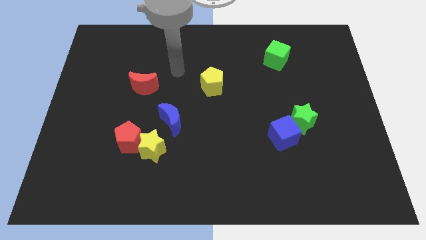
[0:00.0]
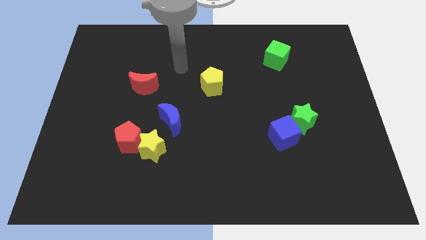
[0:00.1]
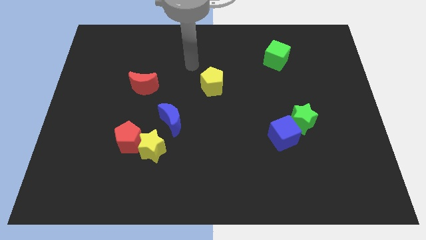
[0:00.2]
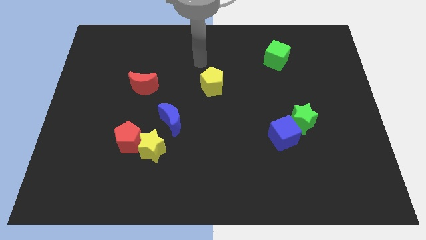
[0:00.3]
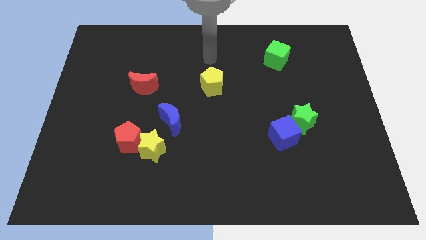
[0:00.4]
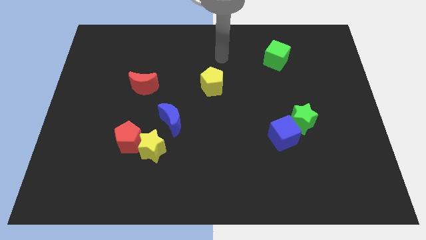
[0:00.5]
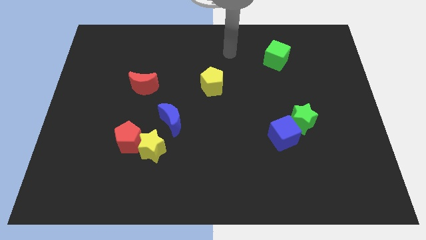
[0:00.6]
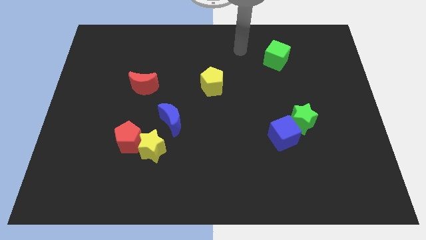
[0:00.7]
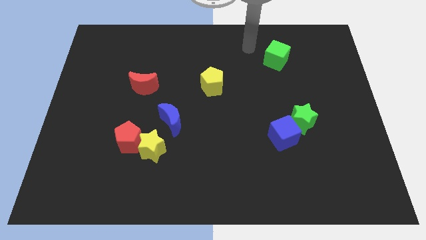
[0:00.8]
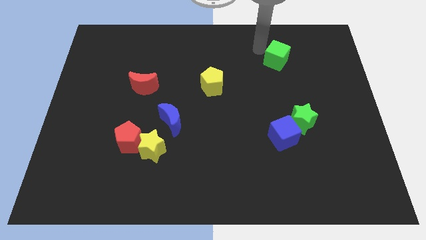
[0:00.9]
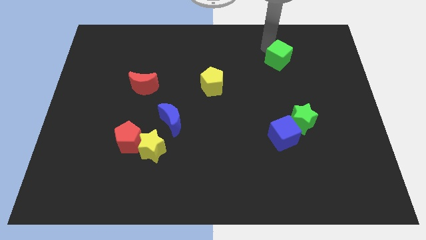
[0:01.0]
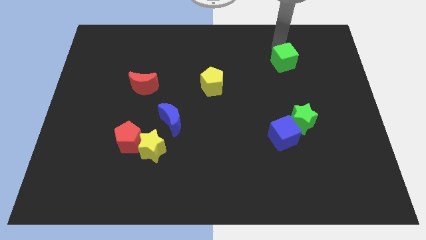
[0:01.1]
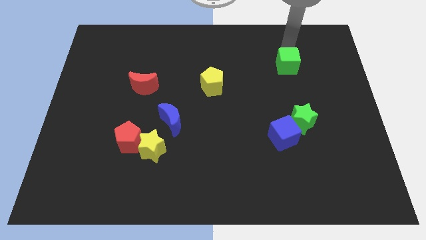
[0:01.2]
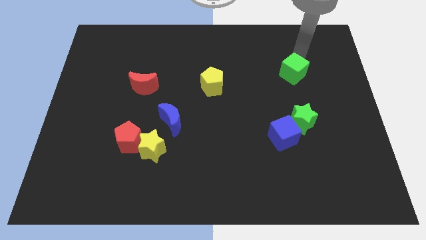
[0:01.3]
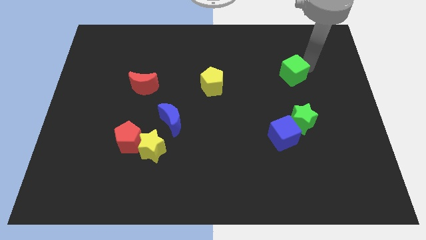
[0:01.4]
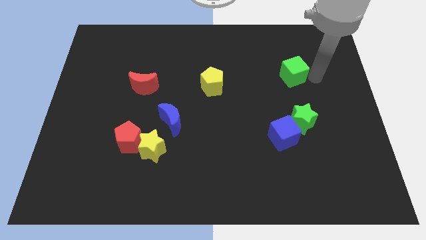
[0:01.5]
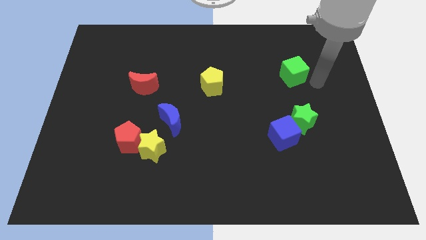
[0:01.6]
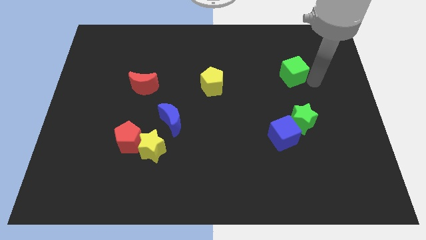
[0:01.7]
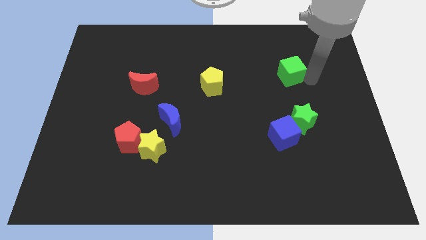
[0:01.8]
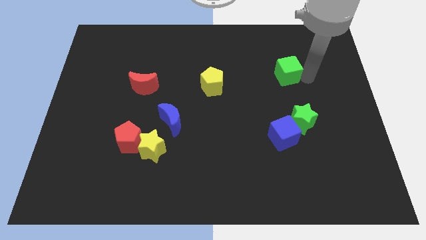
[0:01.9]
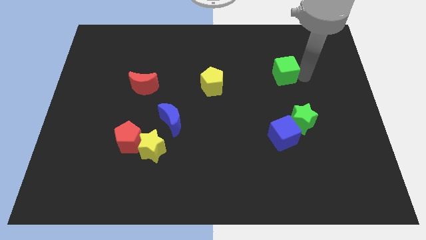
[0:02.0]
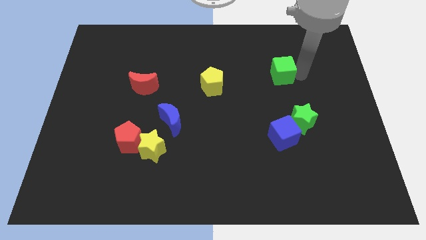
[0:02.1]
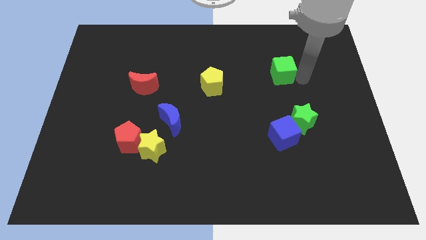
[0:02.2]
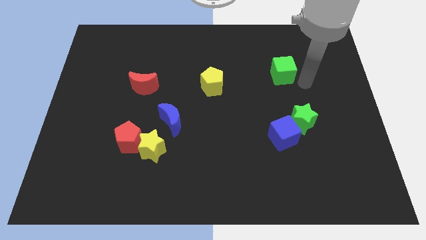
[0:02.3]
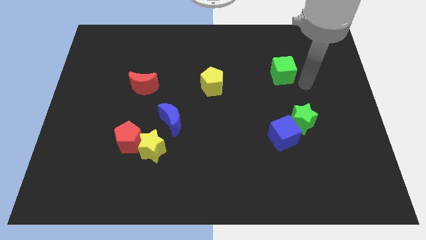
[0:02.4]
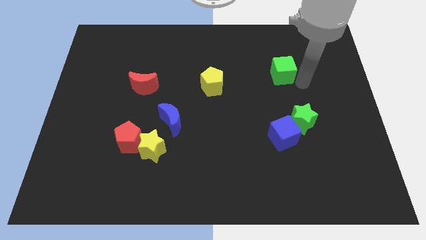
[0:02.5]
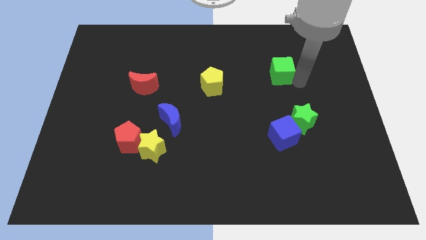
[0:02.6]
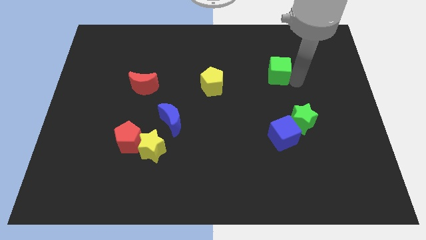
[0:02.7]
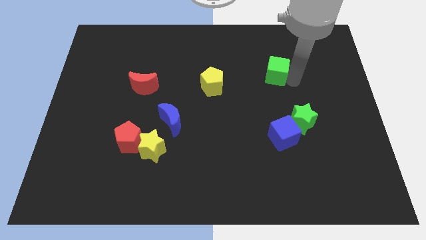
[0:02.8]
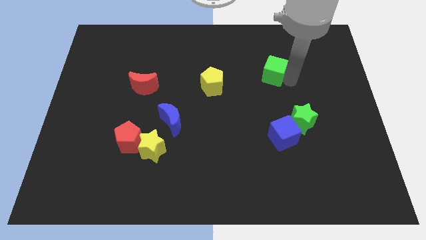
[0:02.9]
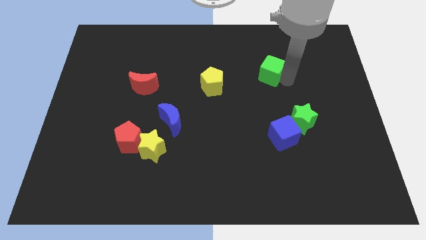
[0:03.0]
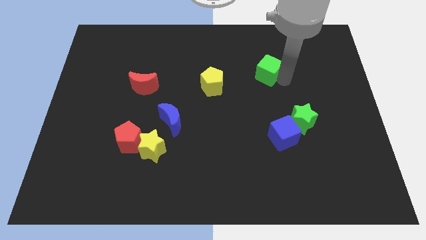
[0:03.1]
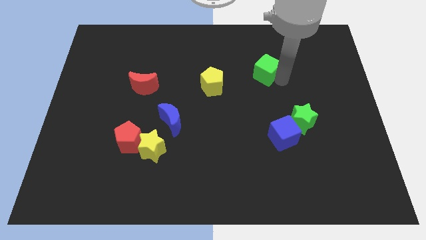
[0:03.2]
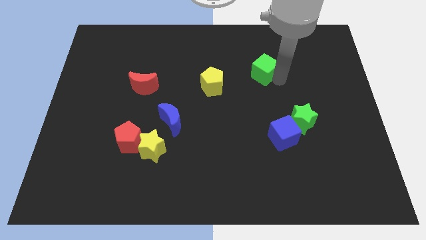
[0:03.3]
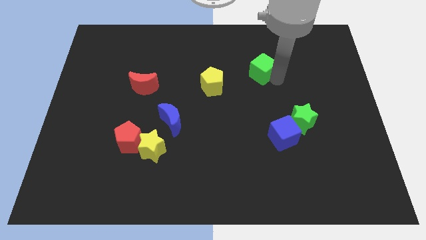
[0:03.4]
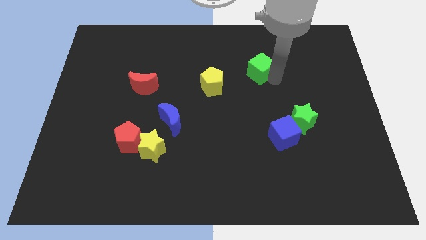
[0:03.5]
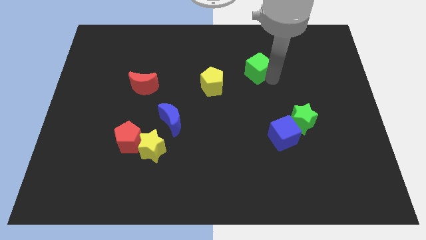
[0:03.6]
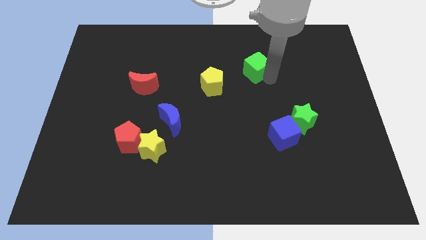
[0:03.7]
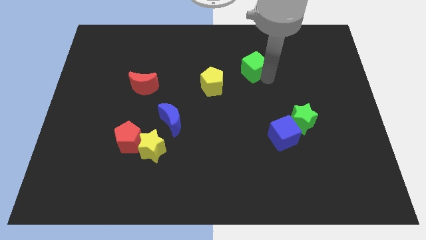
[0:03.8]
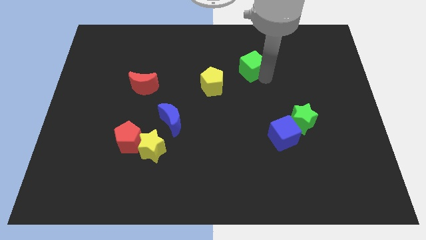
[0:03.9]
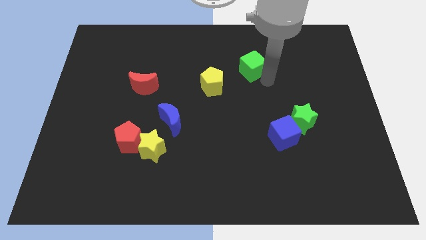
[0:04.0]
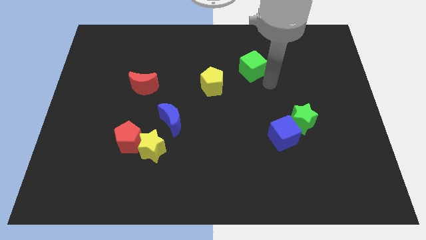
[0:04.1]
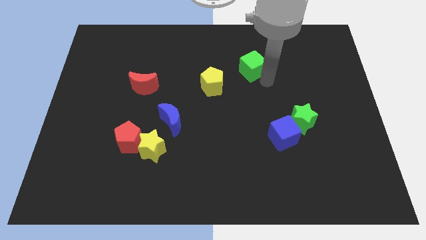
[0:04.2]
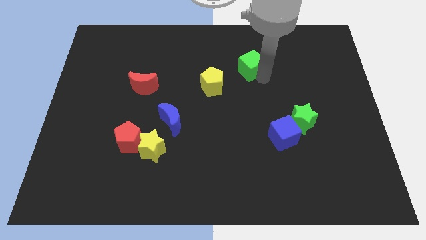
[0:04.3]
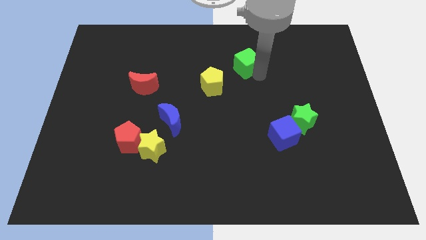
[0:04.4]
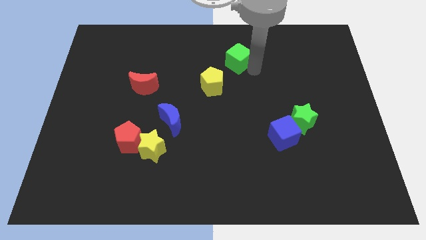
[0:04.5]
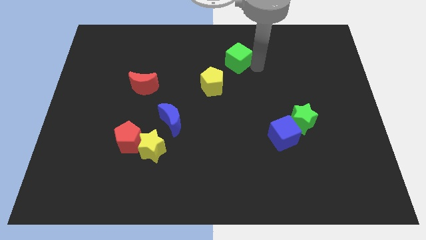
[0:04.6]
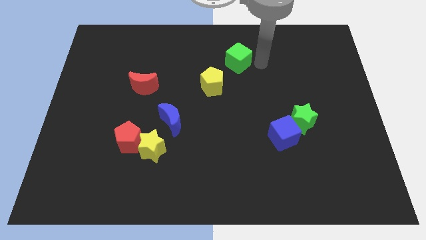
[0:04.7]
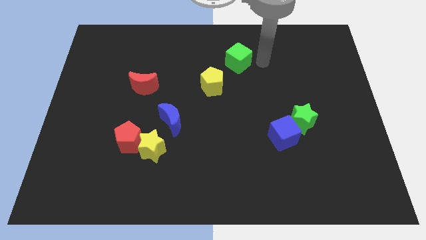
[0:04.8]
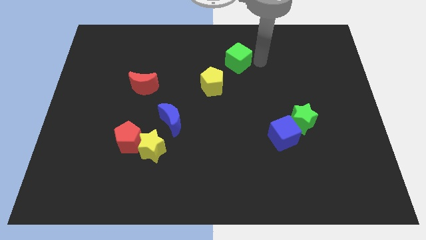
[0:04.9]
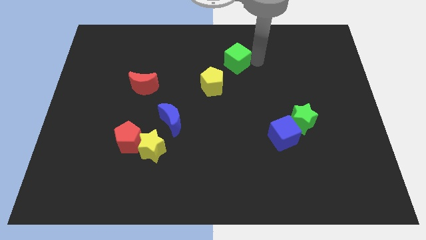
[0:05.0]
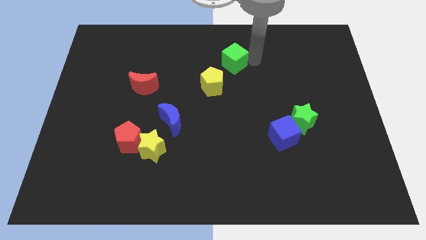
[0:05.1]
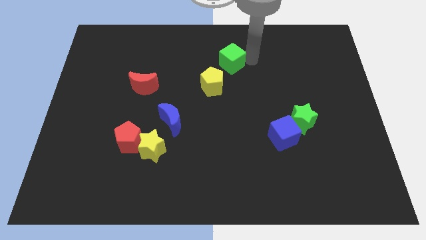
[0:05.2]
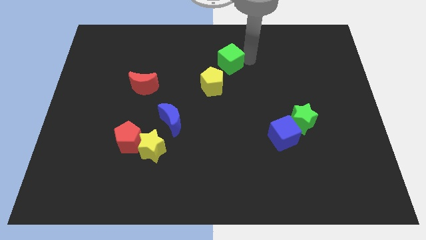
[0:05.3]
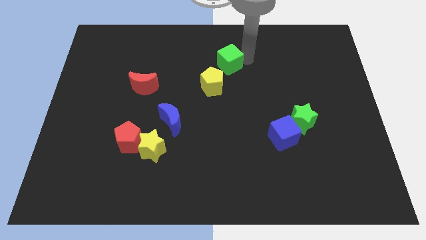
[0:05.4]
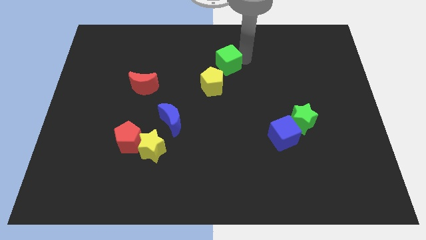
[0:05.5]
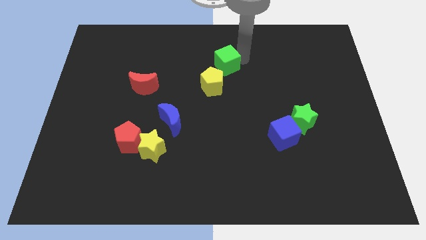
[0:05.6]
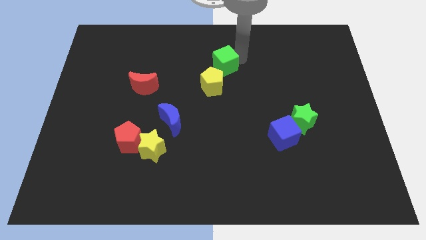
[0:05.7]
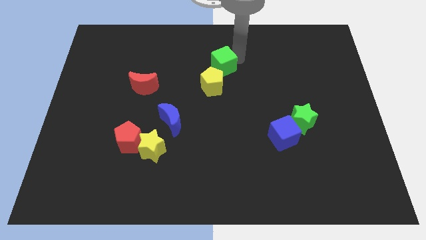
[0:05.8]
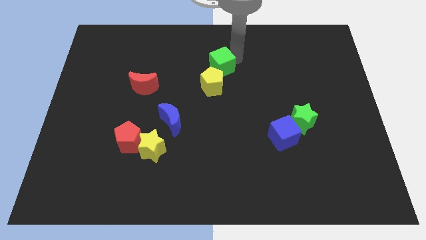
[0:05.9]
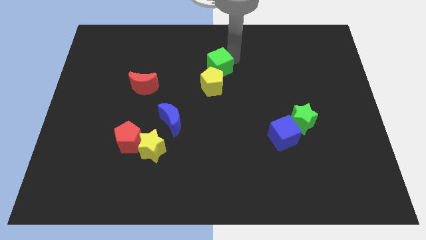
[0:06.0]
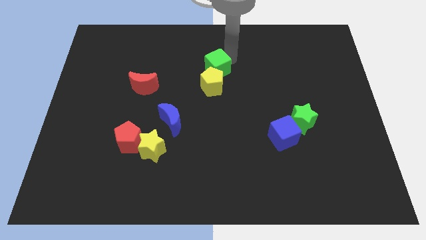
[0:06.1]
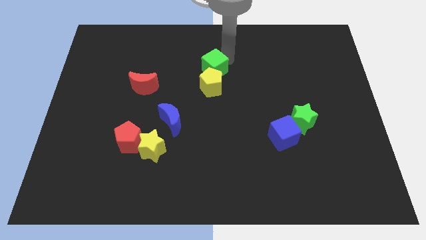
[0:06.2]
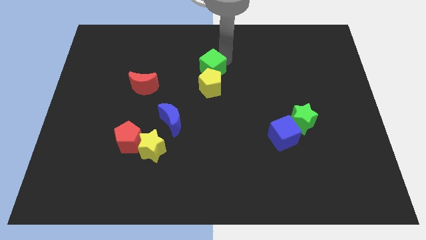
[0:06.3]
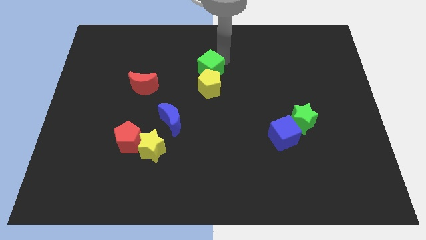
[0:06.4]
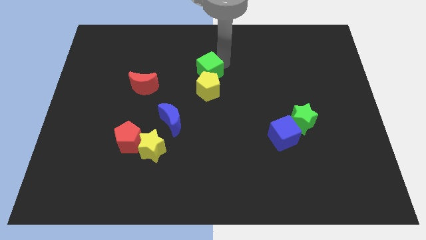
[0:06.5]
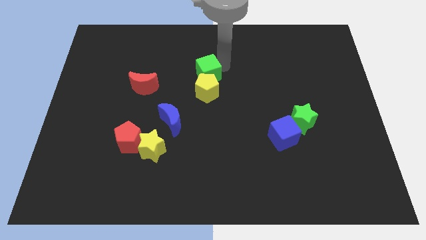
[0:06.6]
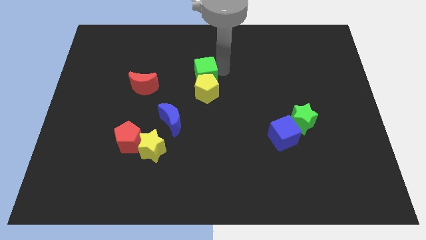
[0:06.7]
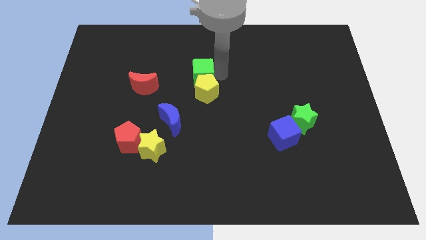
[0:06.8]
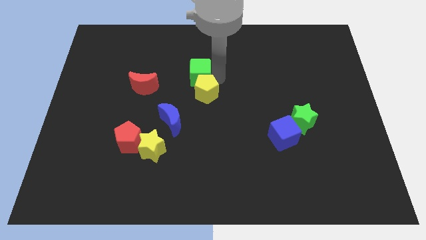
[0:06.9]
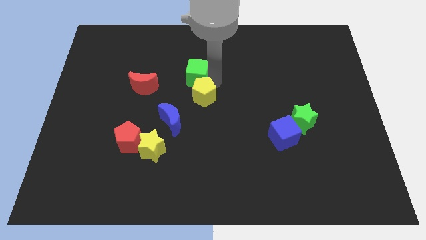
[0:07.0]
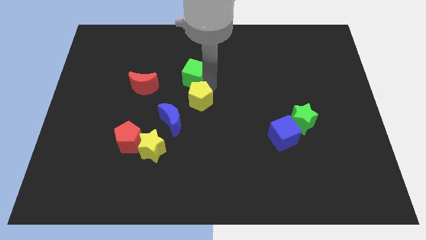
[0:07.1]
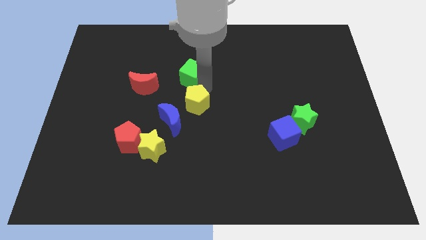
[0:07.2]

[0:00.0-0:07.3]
move the green cube to the left

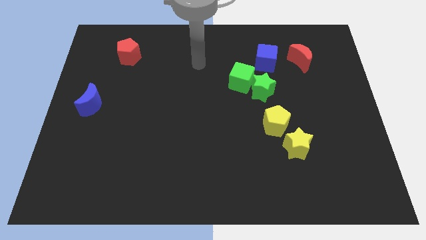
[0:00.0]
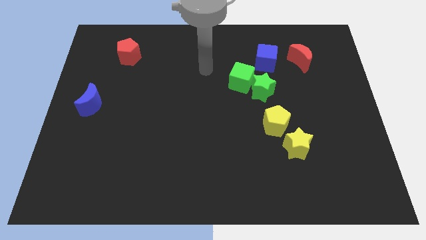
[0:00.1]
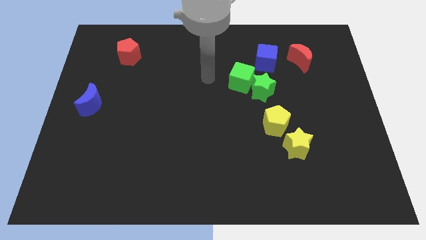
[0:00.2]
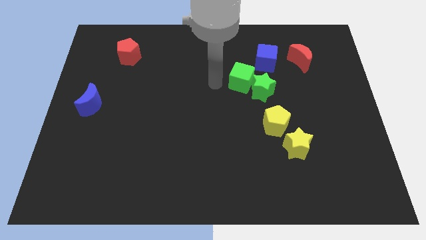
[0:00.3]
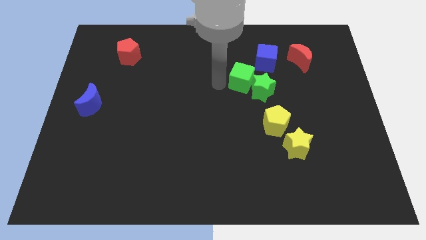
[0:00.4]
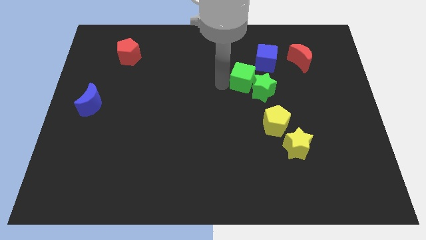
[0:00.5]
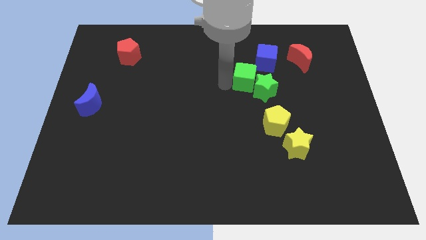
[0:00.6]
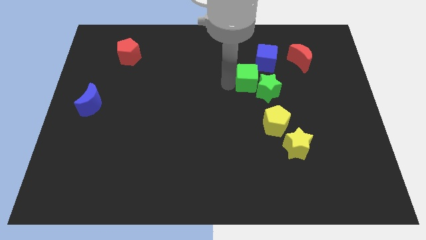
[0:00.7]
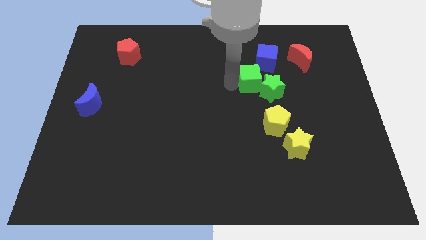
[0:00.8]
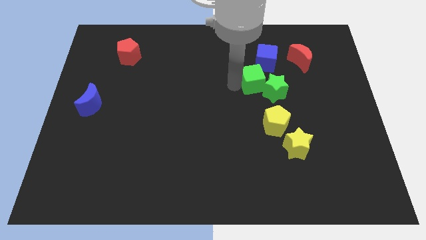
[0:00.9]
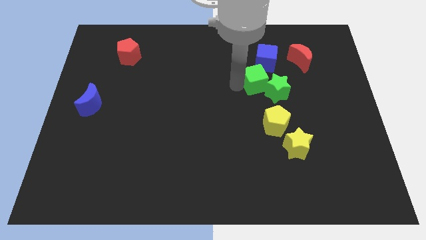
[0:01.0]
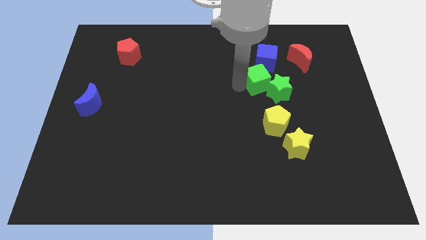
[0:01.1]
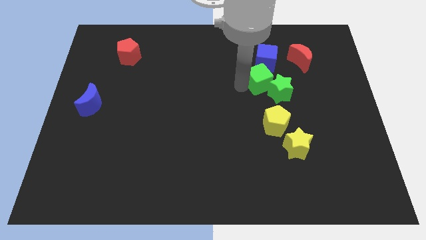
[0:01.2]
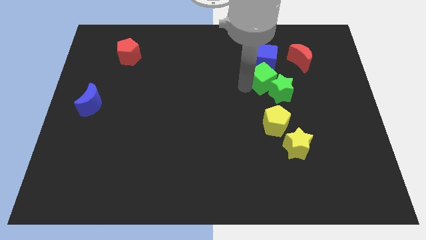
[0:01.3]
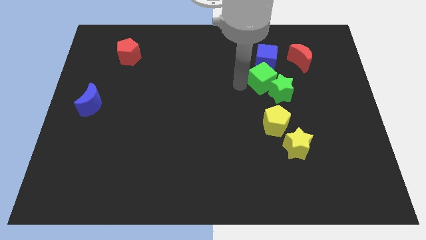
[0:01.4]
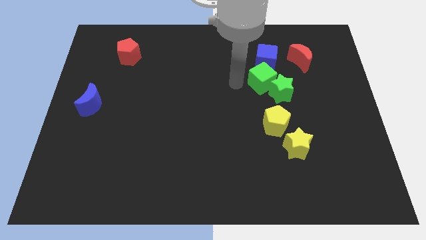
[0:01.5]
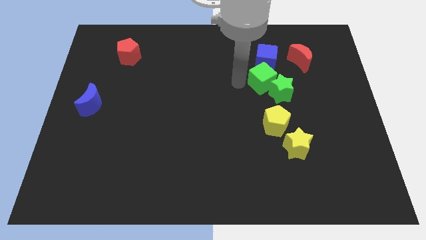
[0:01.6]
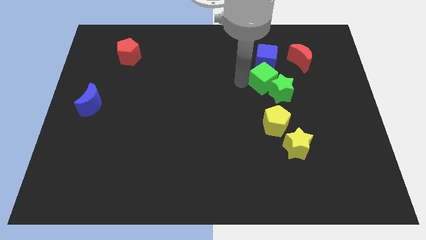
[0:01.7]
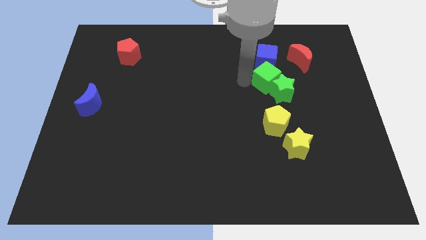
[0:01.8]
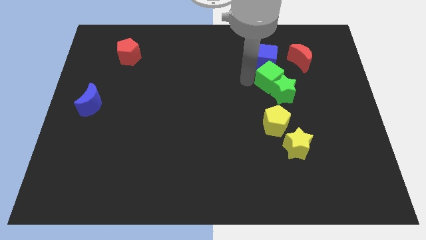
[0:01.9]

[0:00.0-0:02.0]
slide the green cube a bit right
